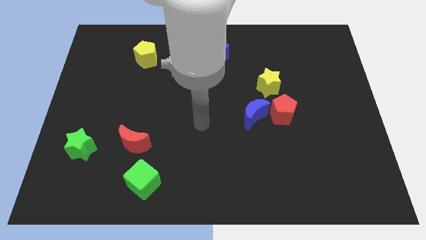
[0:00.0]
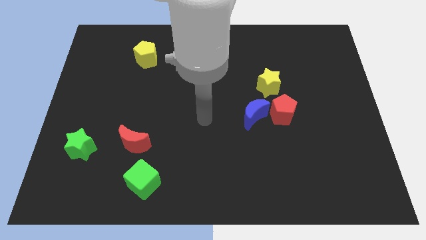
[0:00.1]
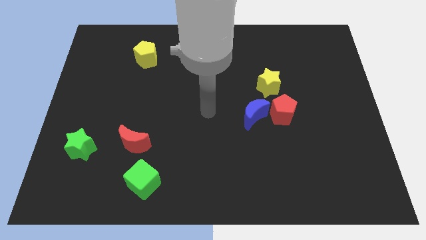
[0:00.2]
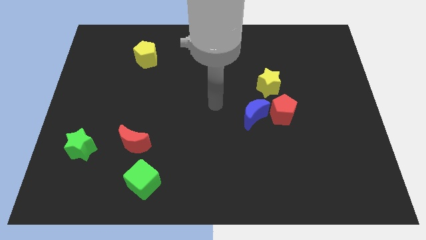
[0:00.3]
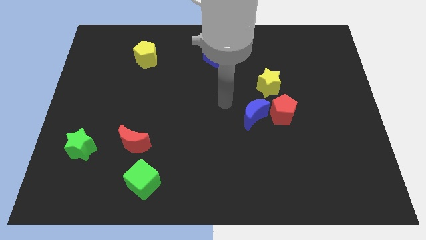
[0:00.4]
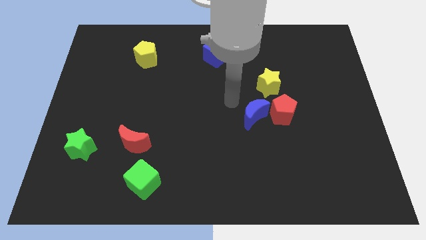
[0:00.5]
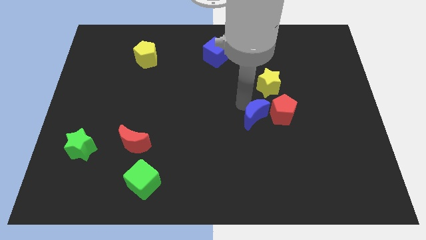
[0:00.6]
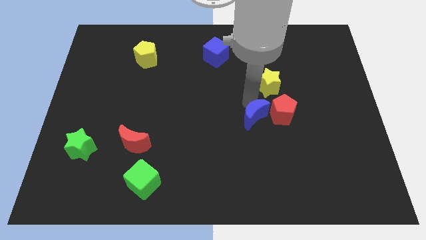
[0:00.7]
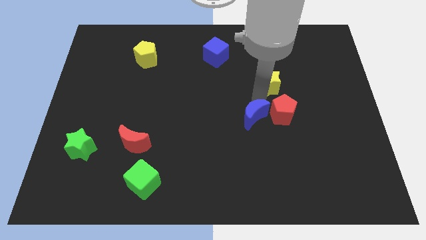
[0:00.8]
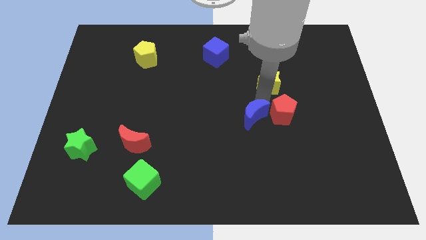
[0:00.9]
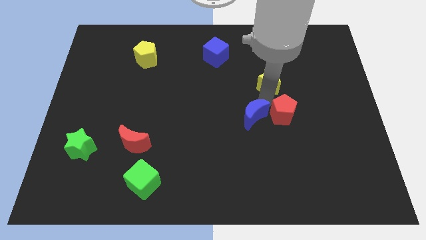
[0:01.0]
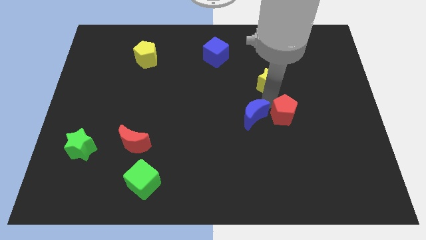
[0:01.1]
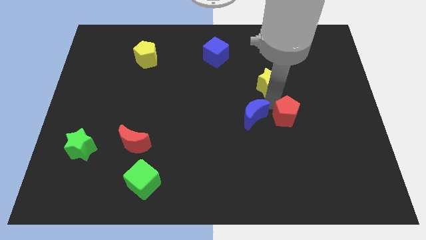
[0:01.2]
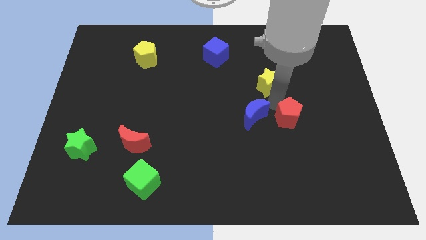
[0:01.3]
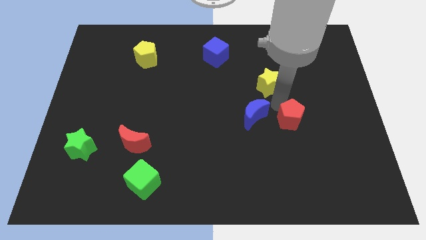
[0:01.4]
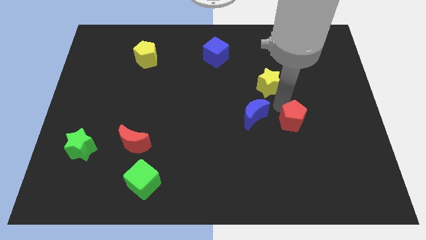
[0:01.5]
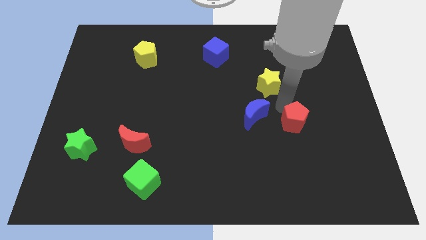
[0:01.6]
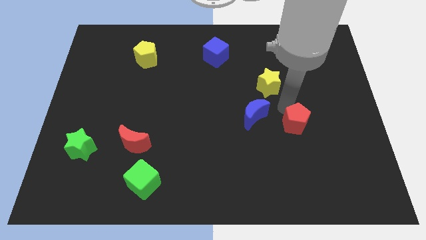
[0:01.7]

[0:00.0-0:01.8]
separate the red pentagon from the blue moon and yellow star

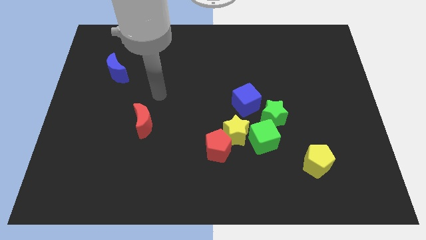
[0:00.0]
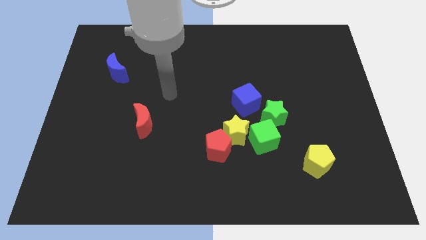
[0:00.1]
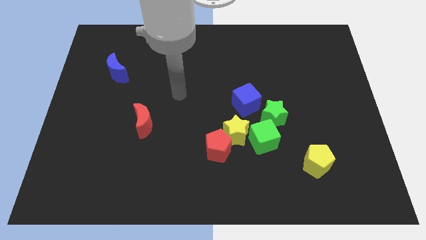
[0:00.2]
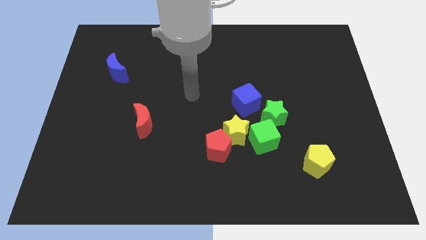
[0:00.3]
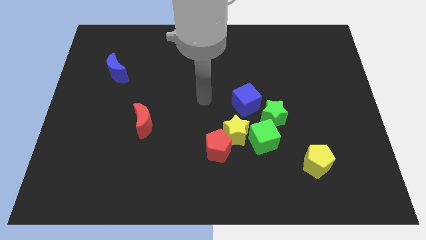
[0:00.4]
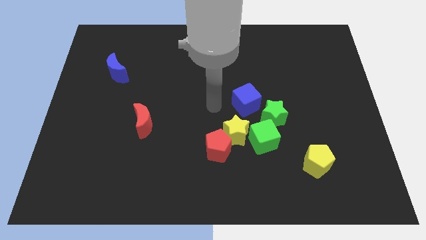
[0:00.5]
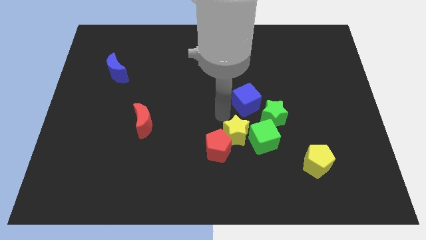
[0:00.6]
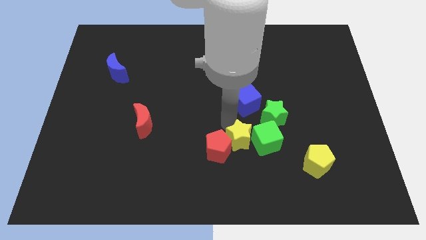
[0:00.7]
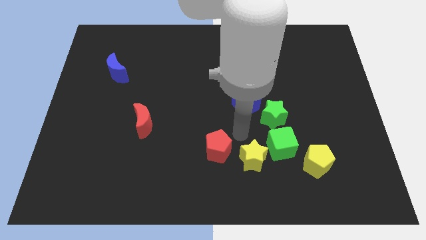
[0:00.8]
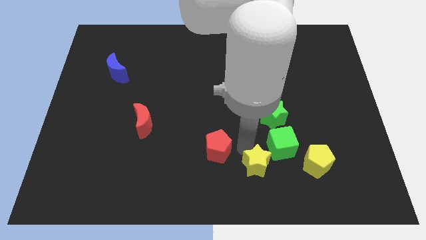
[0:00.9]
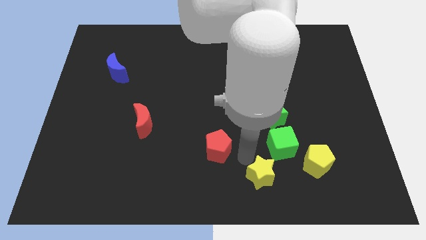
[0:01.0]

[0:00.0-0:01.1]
separate the red pentagon from the yellow star

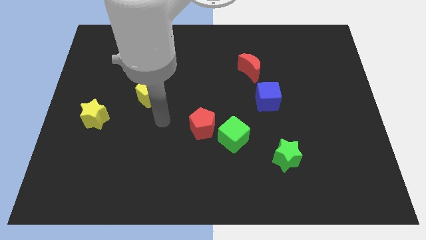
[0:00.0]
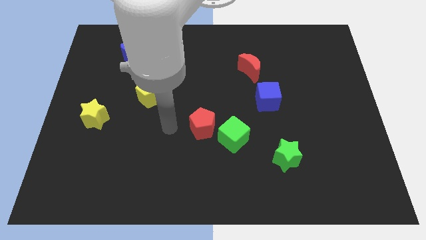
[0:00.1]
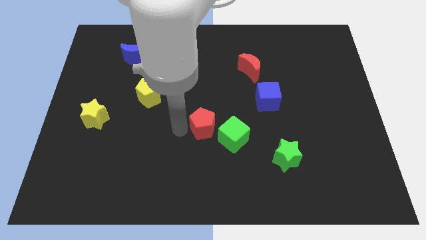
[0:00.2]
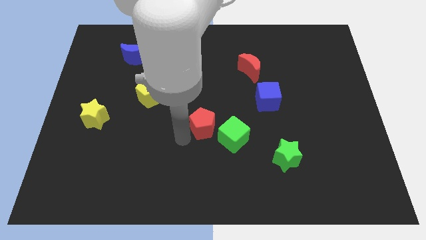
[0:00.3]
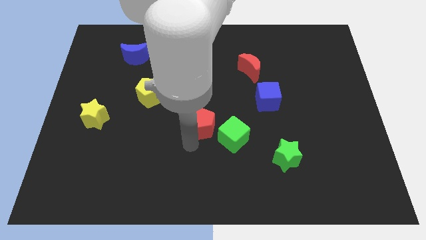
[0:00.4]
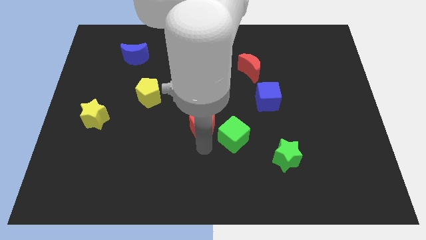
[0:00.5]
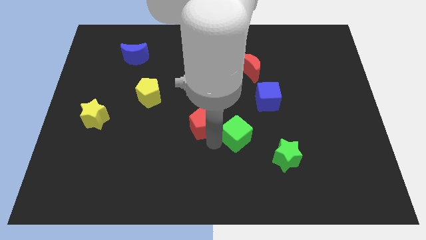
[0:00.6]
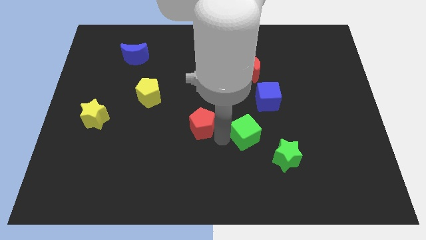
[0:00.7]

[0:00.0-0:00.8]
separate the red pentagon from the green cube

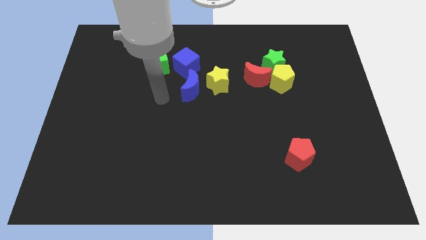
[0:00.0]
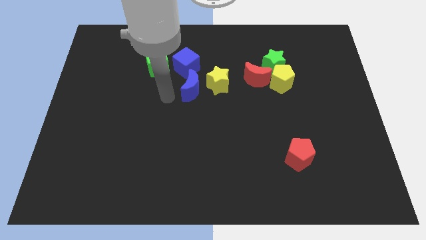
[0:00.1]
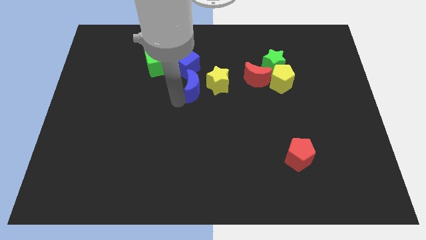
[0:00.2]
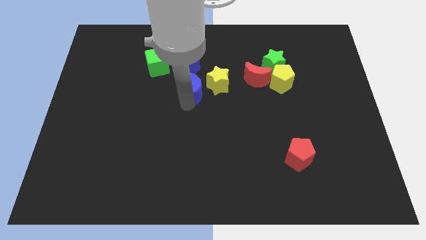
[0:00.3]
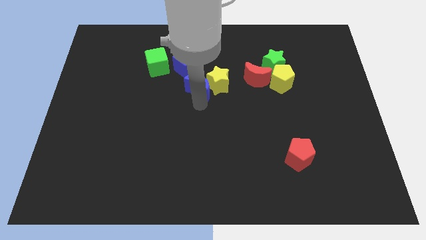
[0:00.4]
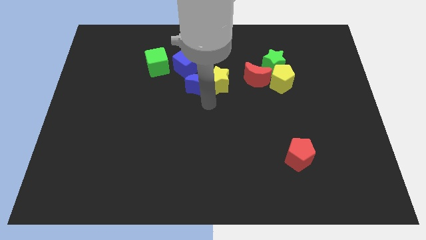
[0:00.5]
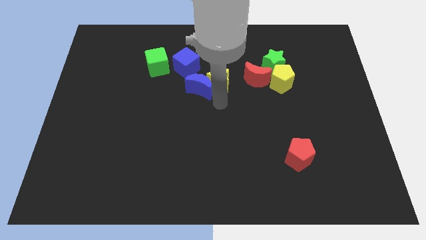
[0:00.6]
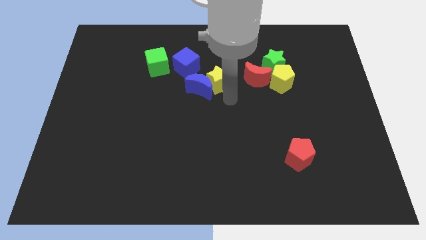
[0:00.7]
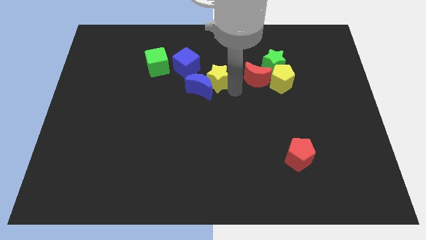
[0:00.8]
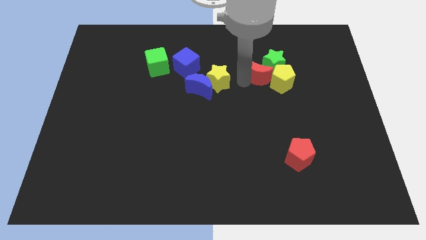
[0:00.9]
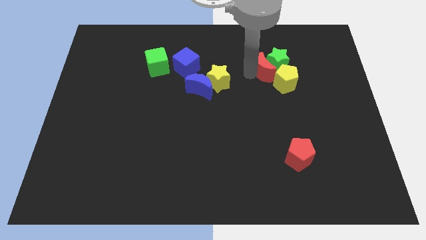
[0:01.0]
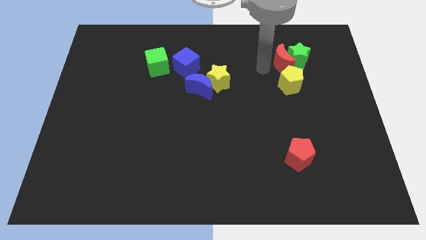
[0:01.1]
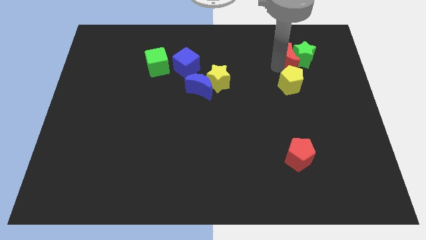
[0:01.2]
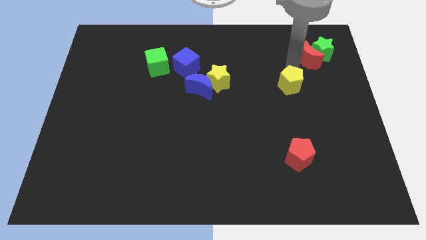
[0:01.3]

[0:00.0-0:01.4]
move the yellow pentagon away from the green star and red moon

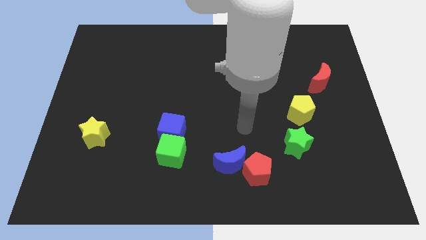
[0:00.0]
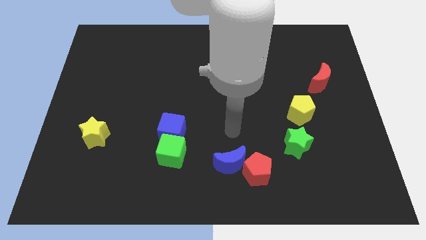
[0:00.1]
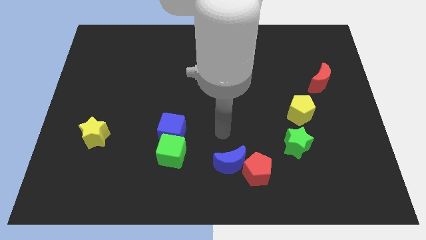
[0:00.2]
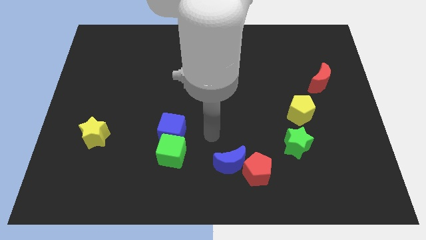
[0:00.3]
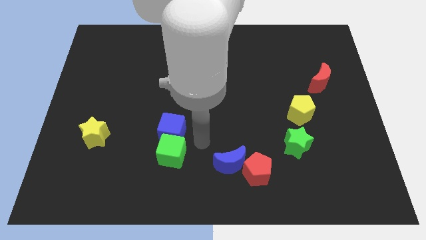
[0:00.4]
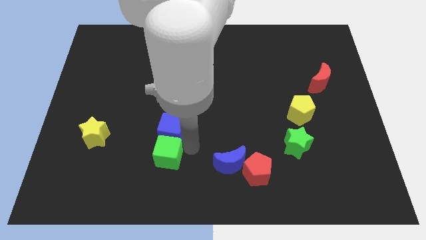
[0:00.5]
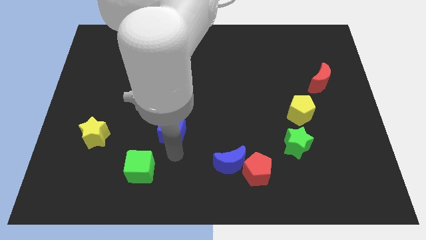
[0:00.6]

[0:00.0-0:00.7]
separate the blue cube from the green cube

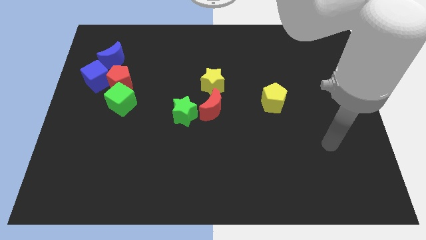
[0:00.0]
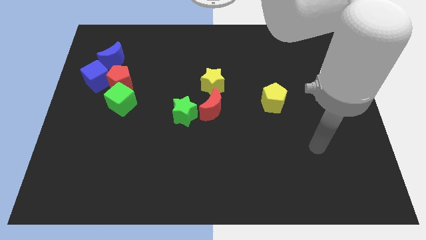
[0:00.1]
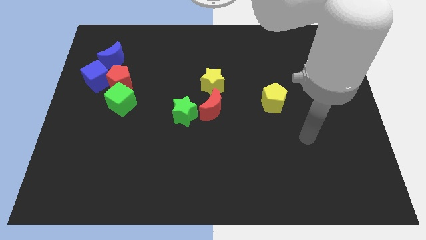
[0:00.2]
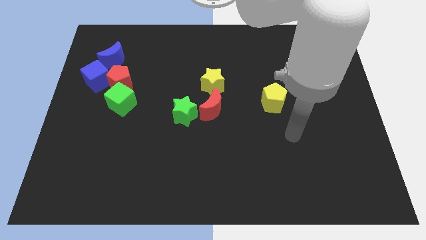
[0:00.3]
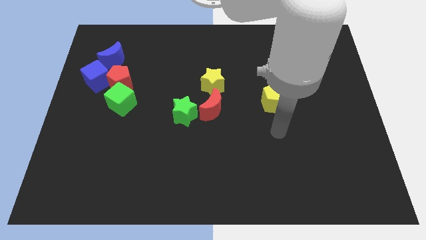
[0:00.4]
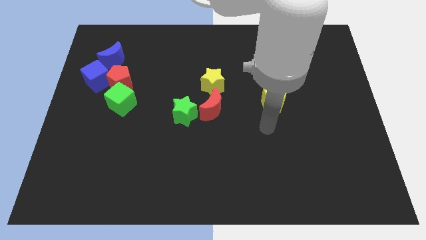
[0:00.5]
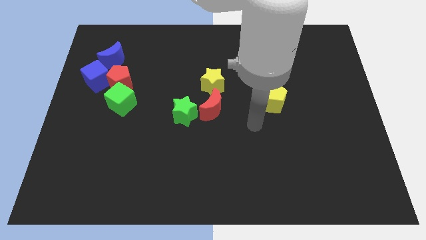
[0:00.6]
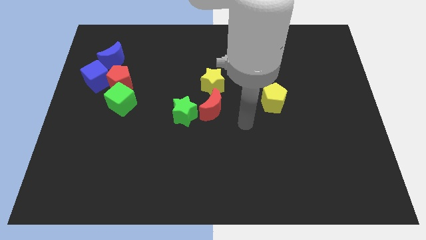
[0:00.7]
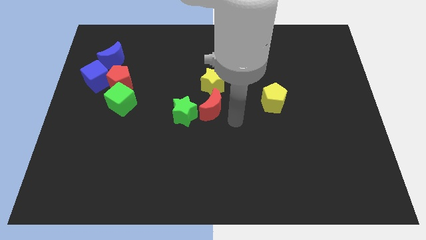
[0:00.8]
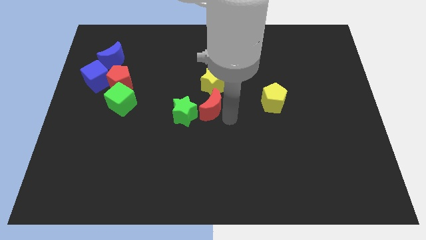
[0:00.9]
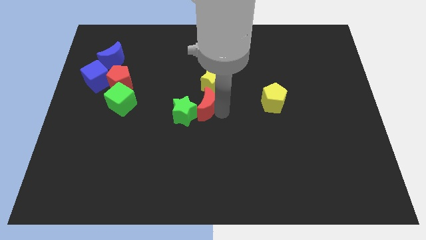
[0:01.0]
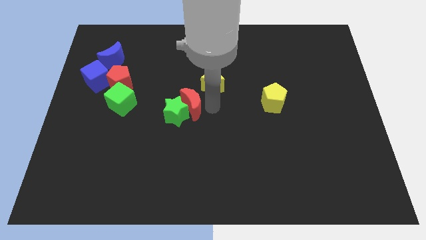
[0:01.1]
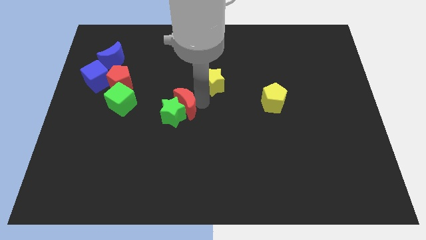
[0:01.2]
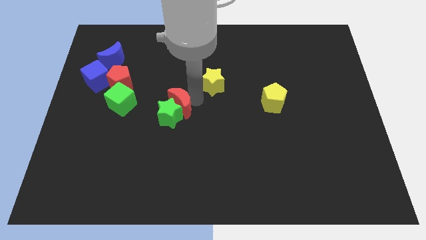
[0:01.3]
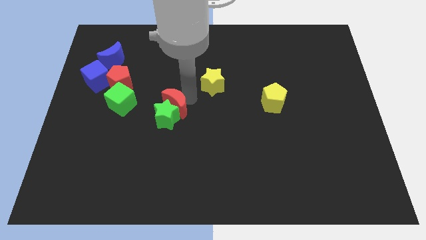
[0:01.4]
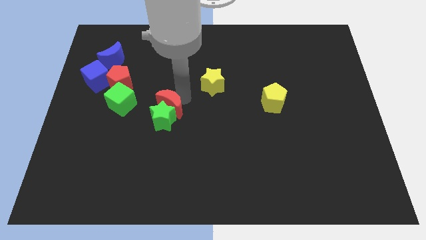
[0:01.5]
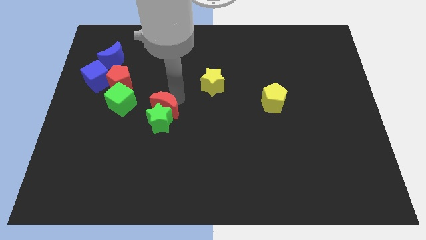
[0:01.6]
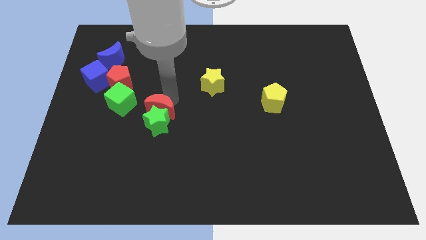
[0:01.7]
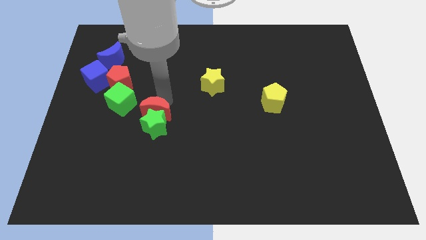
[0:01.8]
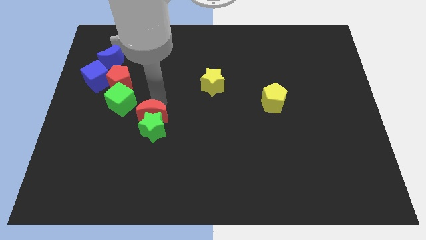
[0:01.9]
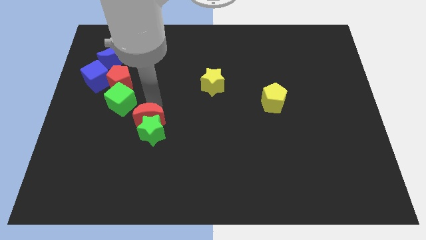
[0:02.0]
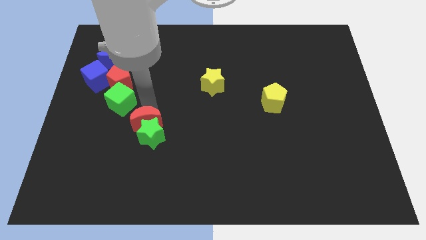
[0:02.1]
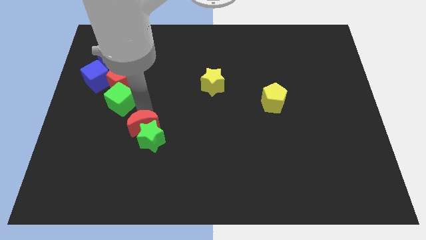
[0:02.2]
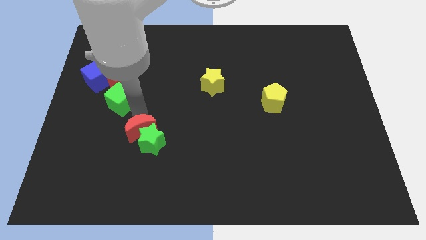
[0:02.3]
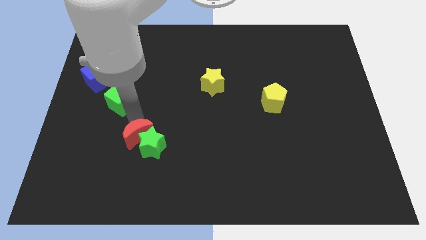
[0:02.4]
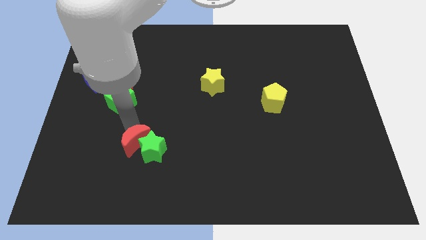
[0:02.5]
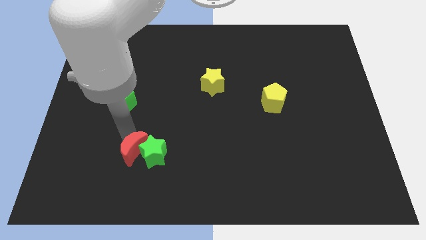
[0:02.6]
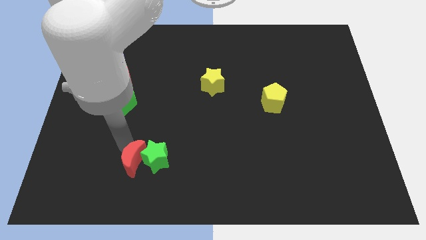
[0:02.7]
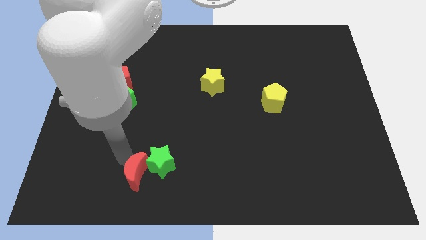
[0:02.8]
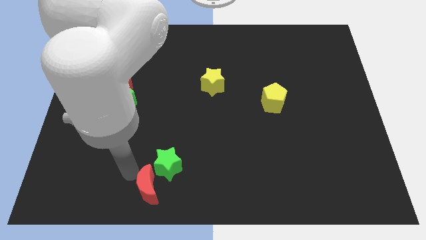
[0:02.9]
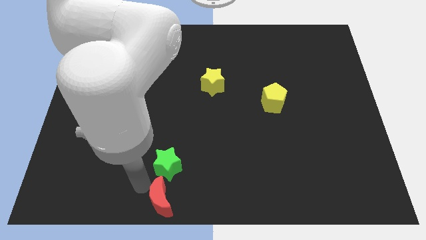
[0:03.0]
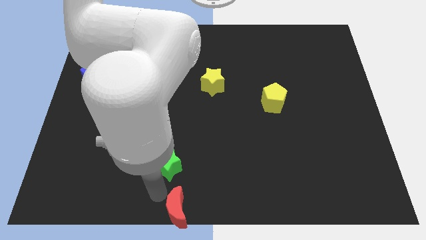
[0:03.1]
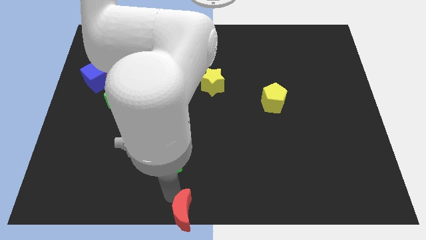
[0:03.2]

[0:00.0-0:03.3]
move the green star away from the red moon

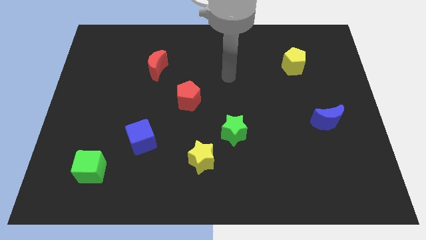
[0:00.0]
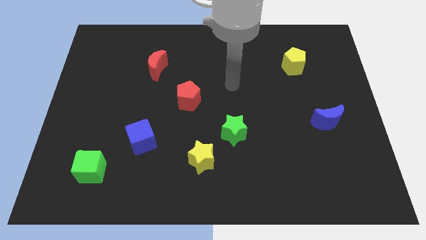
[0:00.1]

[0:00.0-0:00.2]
separate the green star from the yellow star
